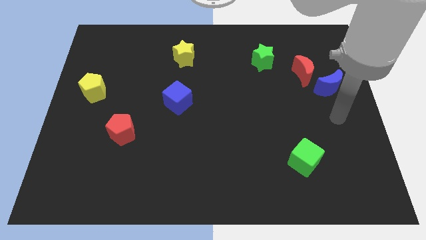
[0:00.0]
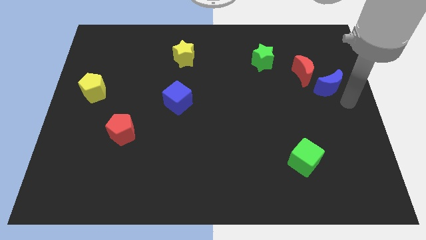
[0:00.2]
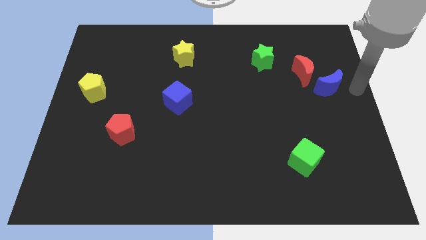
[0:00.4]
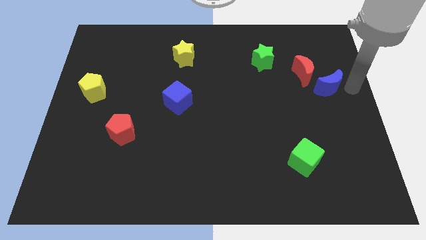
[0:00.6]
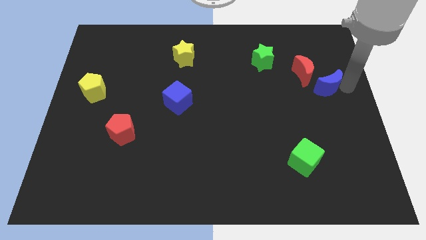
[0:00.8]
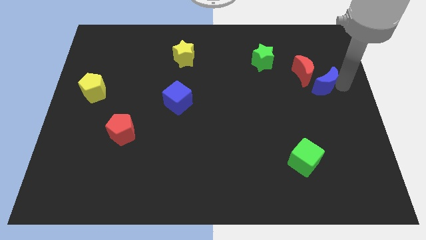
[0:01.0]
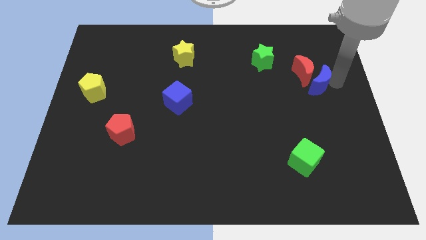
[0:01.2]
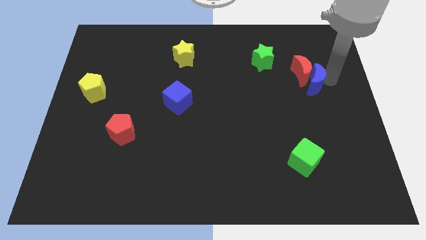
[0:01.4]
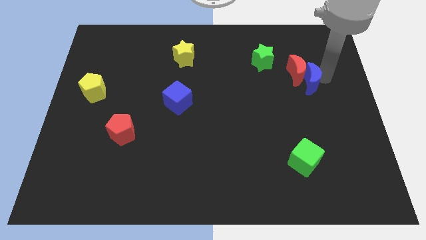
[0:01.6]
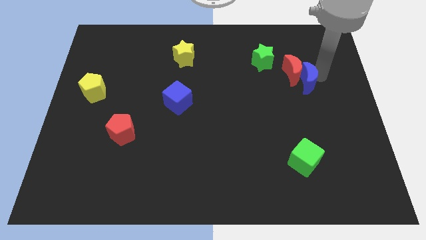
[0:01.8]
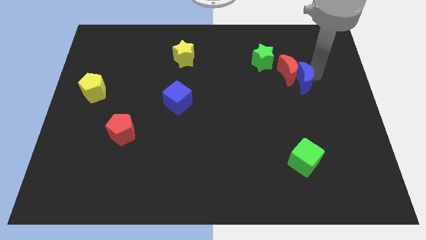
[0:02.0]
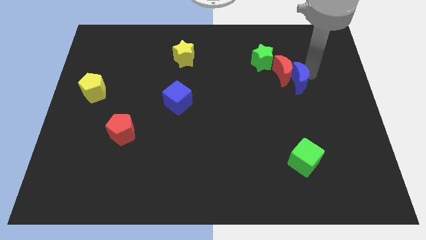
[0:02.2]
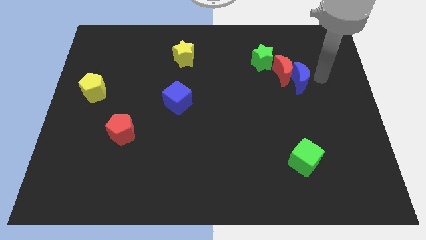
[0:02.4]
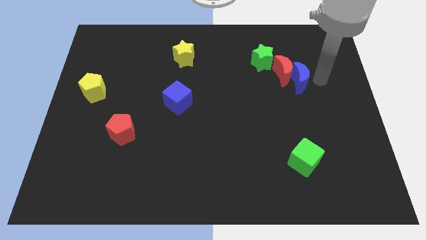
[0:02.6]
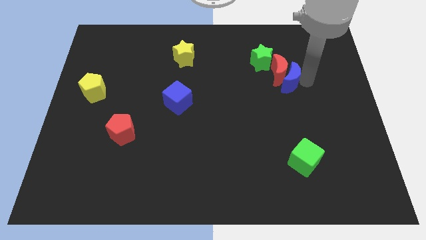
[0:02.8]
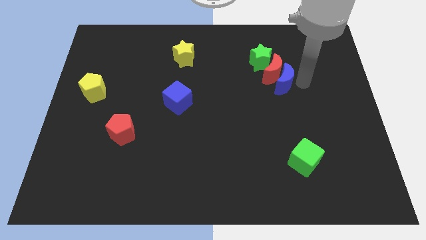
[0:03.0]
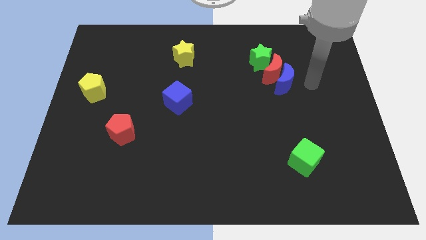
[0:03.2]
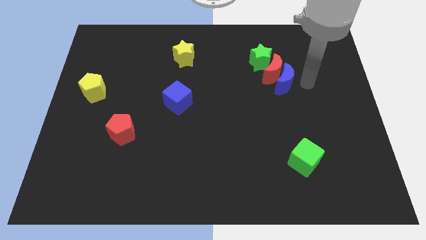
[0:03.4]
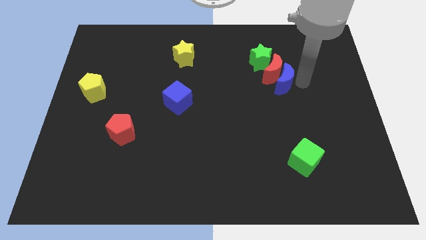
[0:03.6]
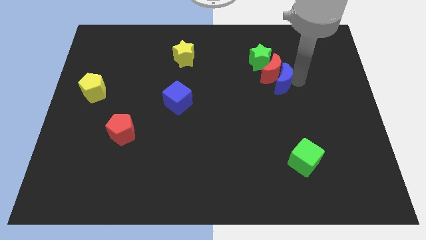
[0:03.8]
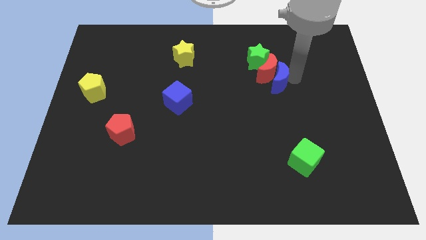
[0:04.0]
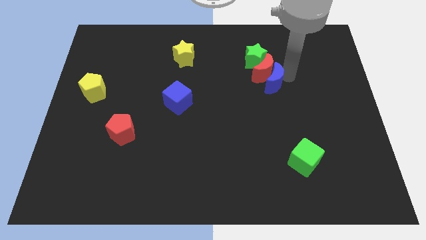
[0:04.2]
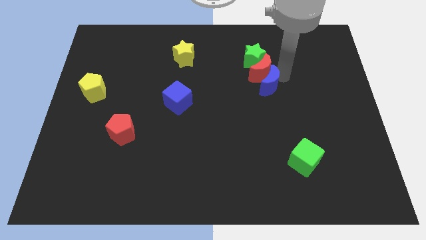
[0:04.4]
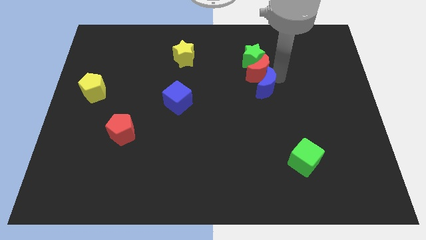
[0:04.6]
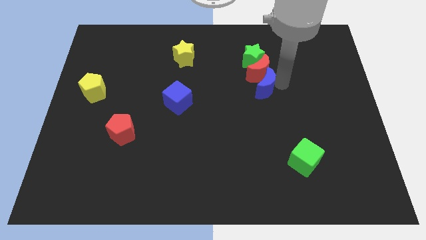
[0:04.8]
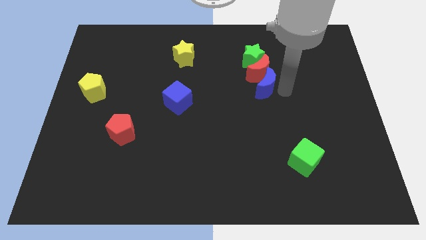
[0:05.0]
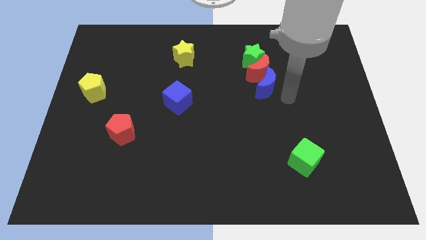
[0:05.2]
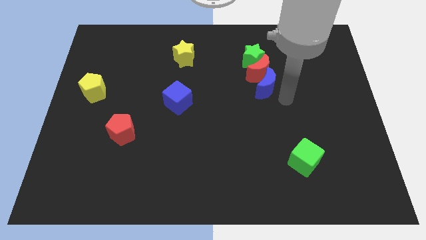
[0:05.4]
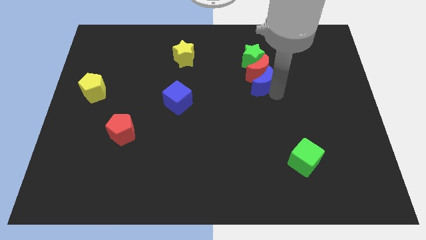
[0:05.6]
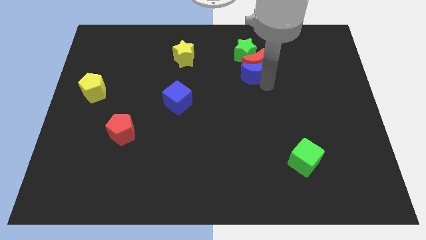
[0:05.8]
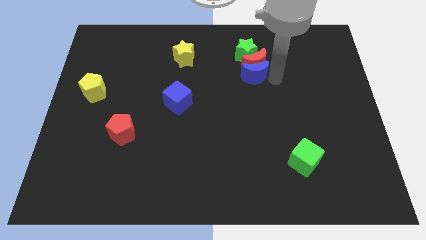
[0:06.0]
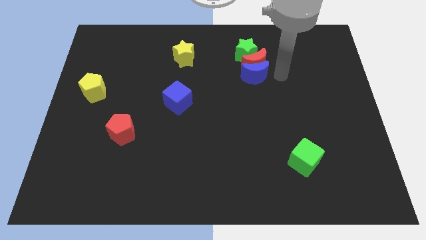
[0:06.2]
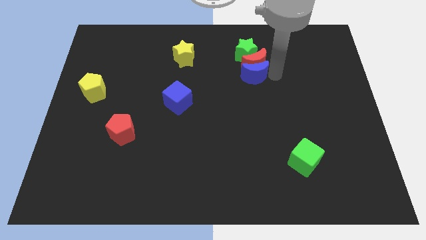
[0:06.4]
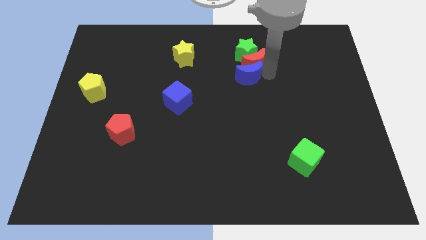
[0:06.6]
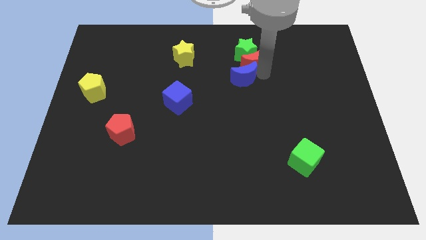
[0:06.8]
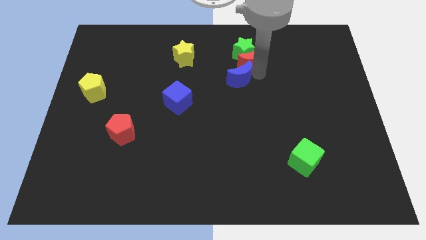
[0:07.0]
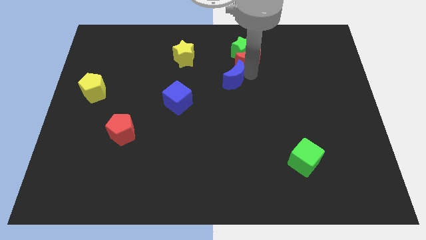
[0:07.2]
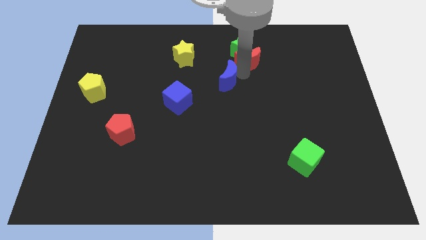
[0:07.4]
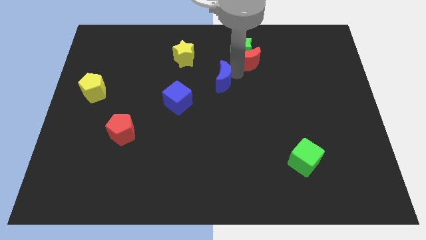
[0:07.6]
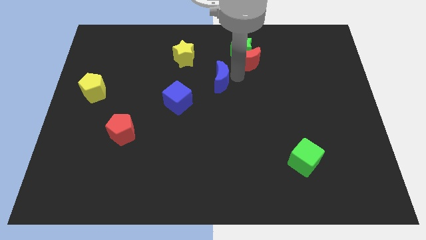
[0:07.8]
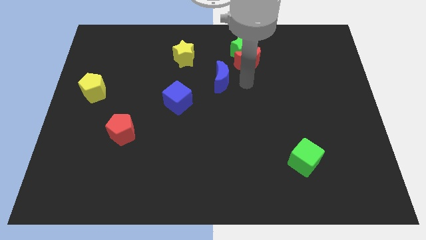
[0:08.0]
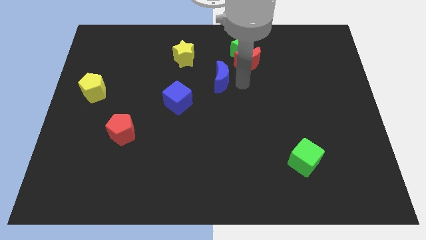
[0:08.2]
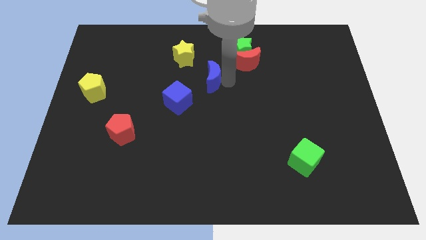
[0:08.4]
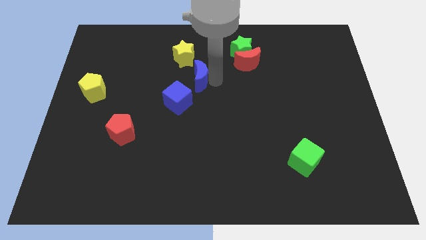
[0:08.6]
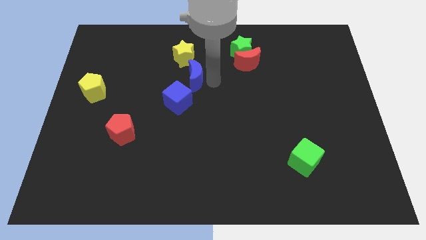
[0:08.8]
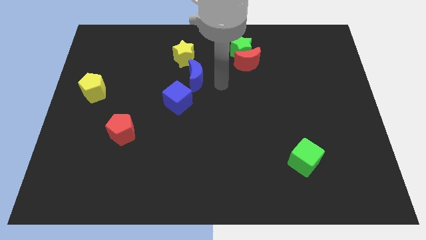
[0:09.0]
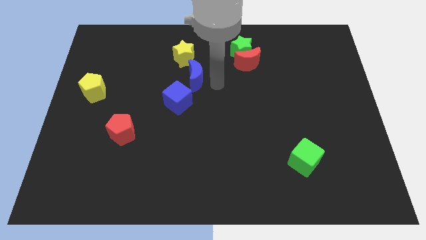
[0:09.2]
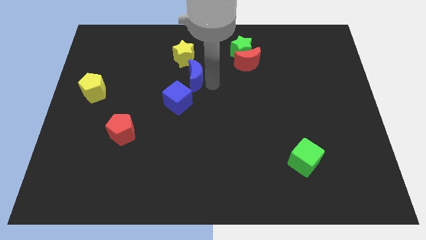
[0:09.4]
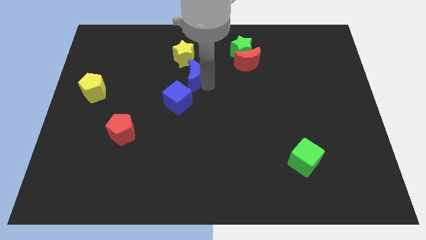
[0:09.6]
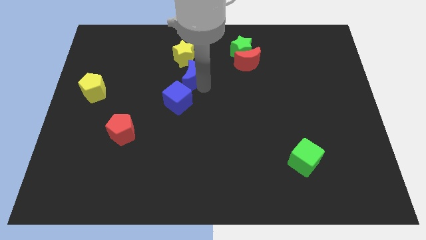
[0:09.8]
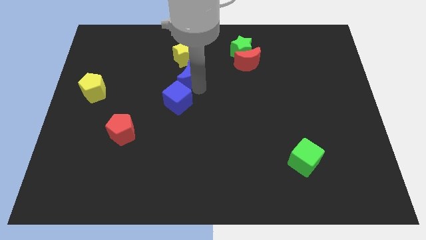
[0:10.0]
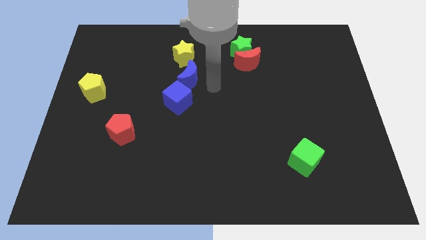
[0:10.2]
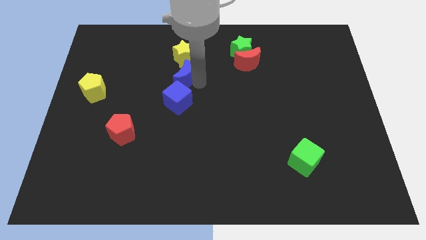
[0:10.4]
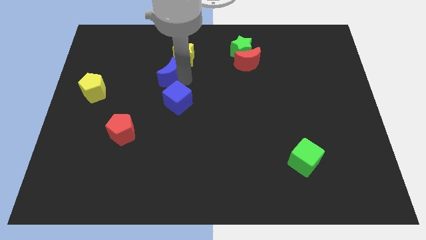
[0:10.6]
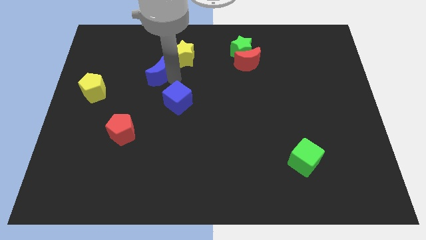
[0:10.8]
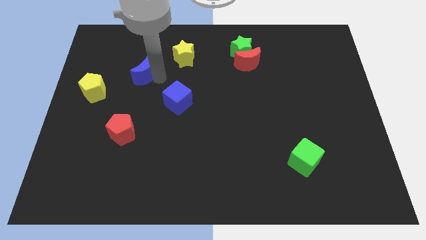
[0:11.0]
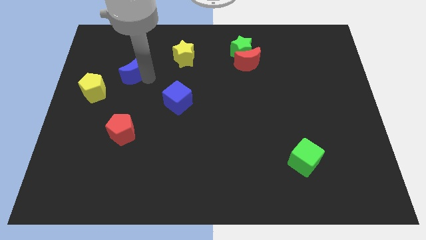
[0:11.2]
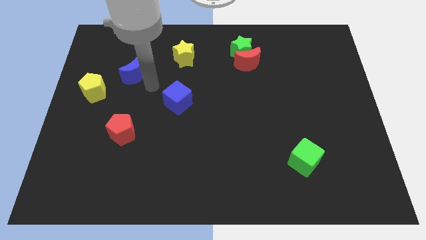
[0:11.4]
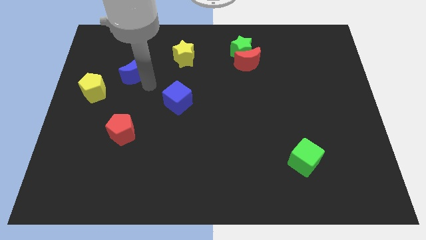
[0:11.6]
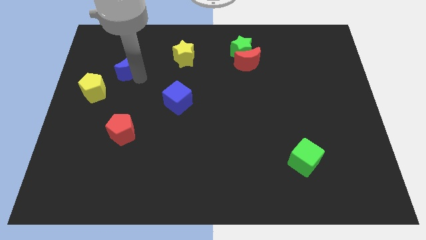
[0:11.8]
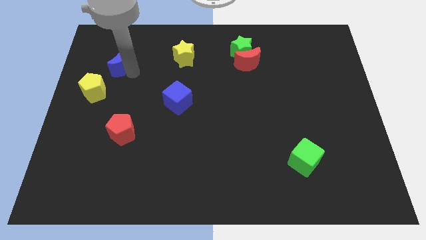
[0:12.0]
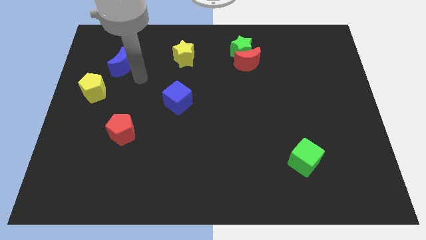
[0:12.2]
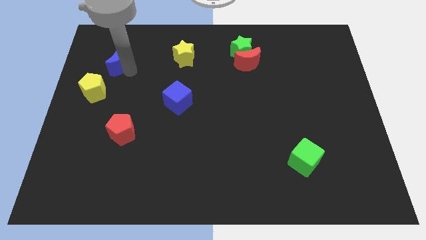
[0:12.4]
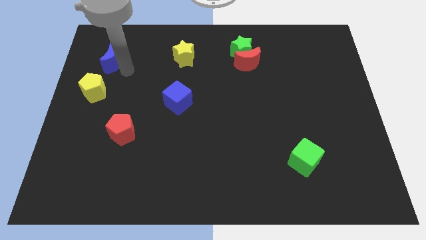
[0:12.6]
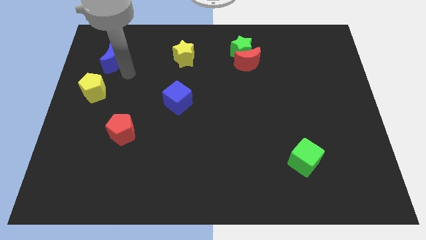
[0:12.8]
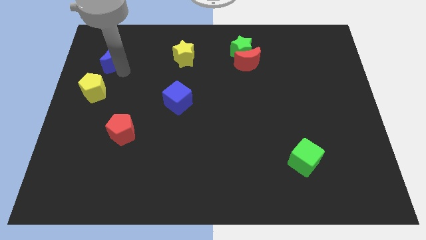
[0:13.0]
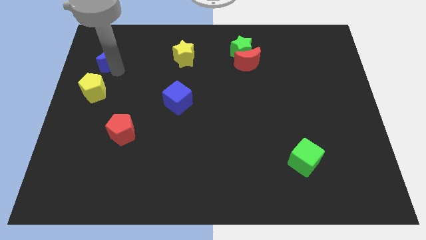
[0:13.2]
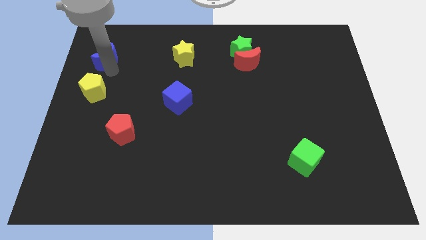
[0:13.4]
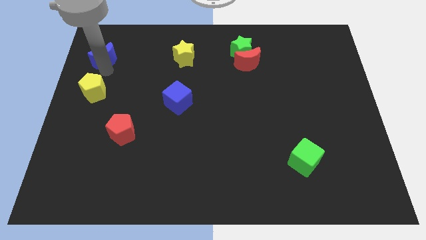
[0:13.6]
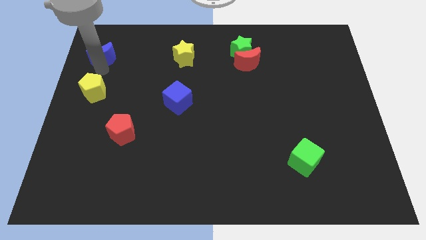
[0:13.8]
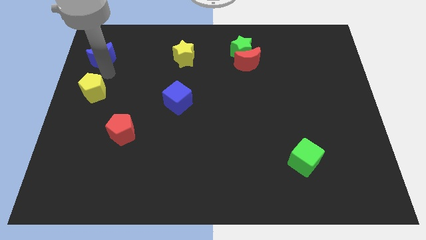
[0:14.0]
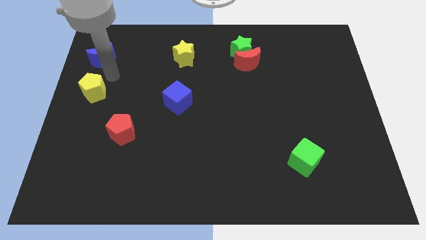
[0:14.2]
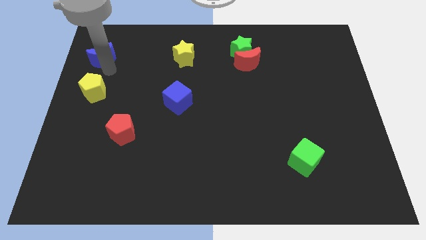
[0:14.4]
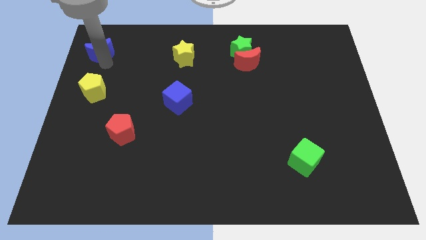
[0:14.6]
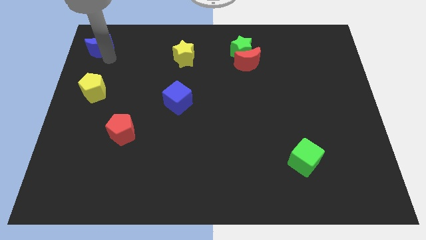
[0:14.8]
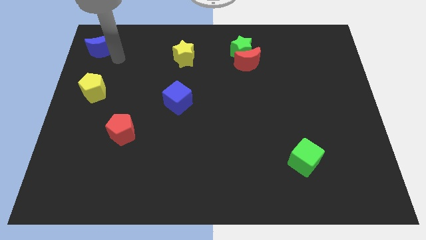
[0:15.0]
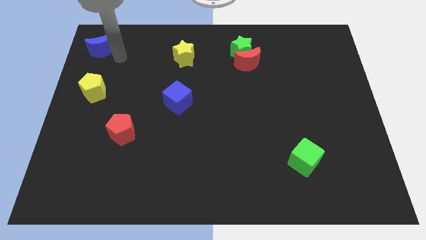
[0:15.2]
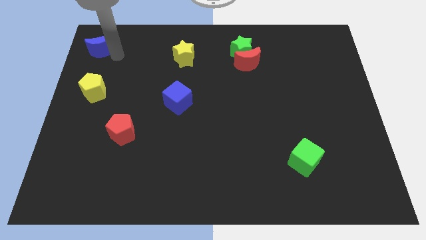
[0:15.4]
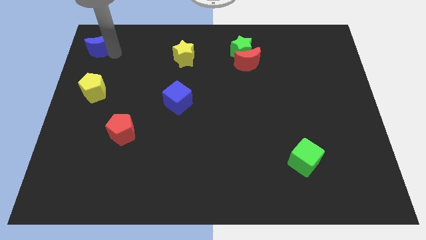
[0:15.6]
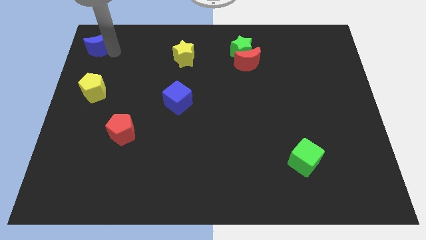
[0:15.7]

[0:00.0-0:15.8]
put the blue moon to the top left
